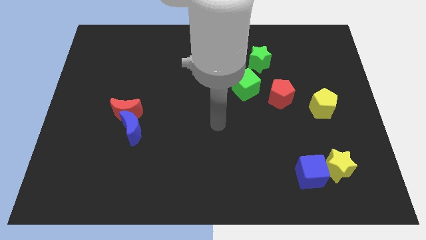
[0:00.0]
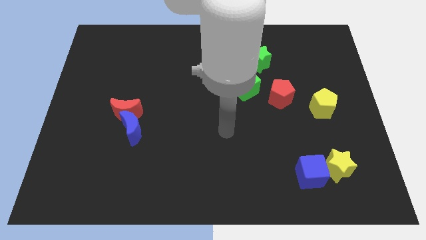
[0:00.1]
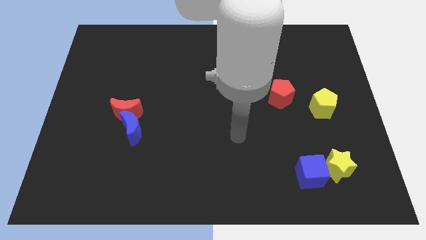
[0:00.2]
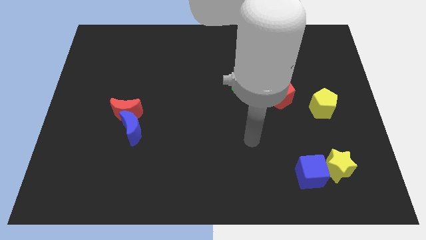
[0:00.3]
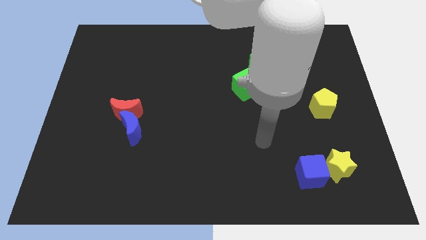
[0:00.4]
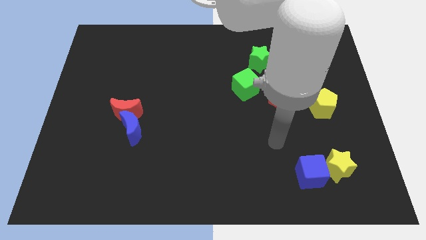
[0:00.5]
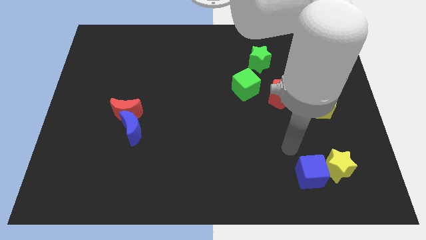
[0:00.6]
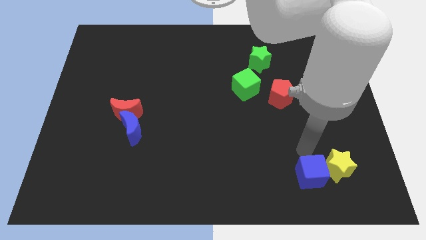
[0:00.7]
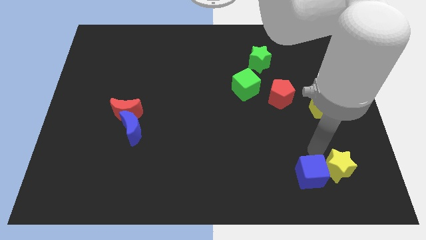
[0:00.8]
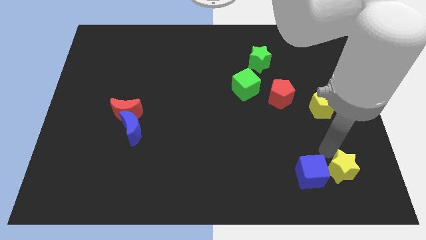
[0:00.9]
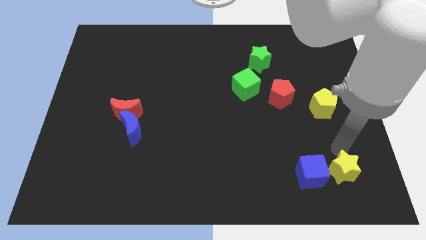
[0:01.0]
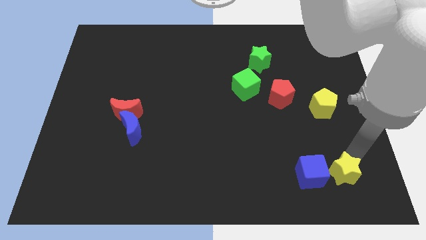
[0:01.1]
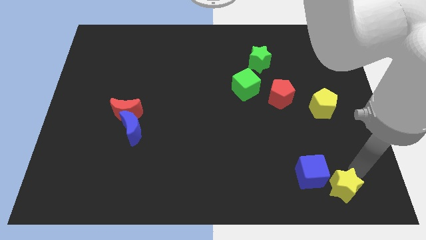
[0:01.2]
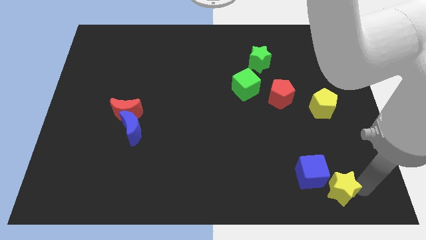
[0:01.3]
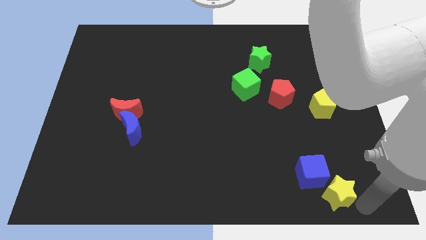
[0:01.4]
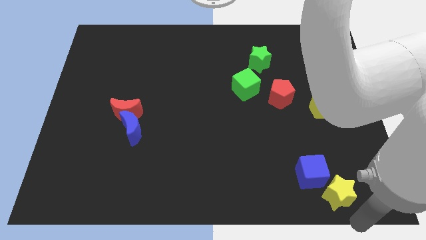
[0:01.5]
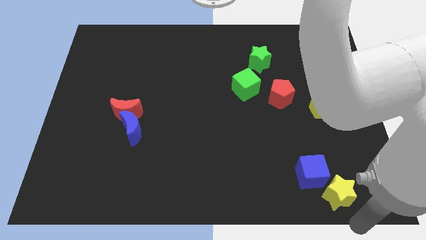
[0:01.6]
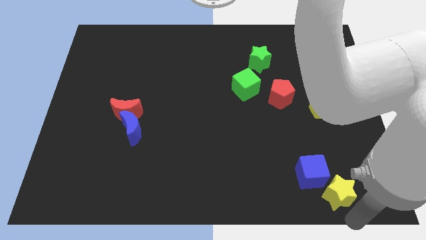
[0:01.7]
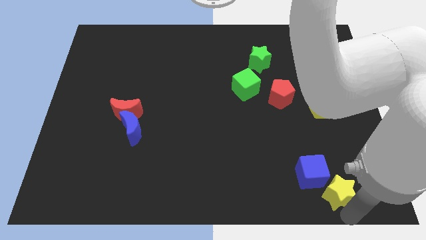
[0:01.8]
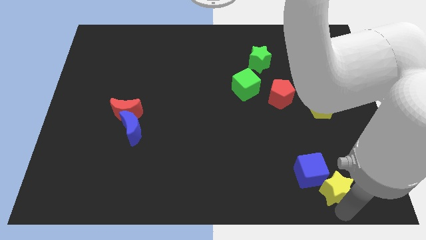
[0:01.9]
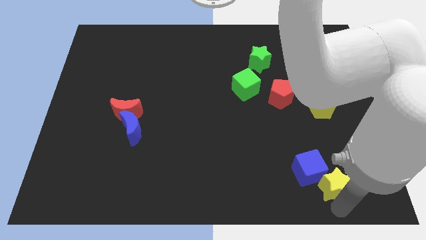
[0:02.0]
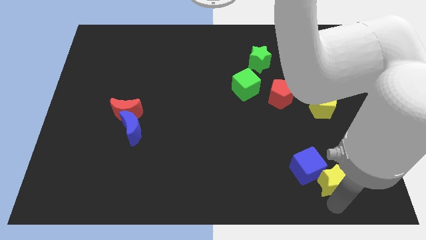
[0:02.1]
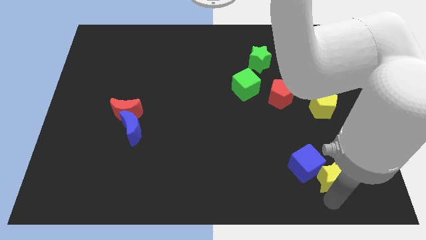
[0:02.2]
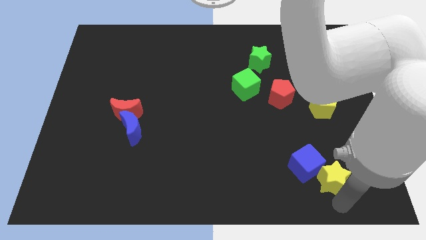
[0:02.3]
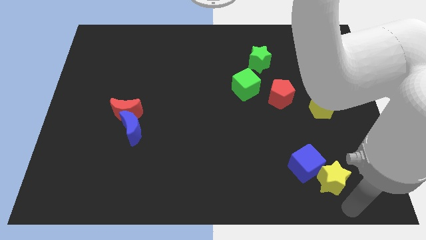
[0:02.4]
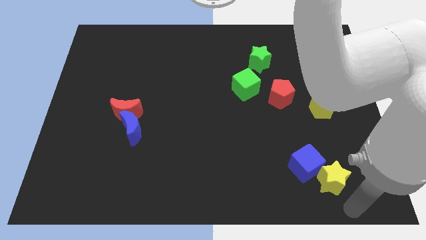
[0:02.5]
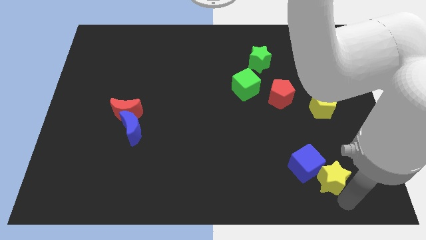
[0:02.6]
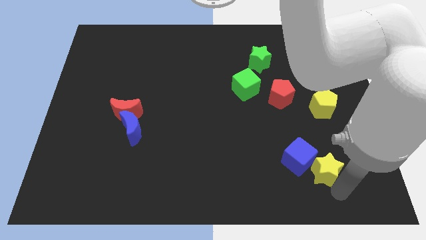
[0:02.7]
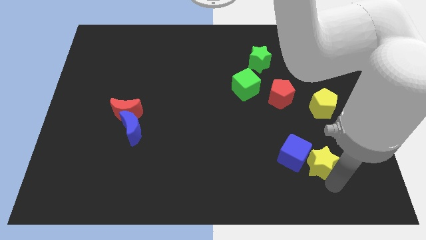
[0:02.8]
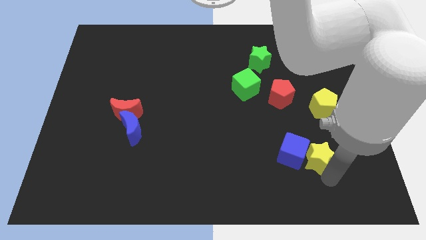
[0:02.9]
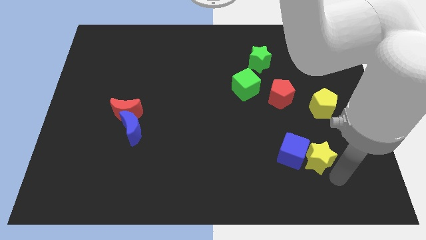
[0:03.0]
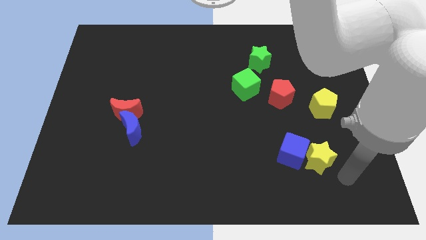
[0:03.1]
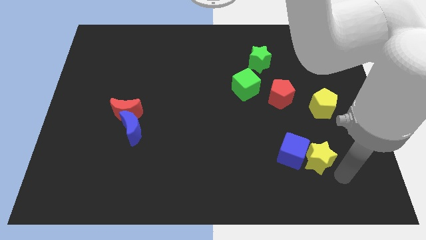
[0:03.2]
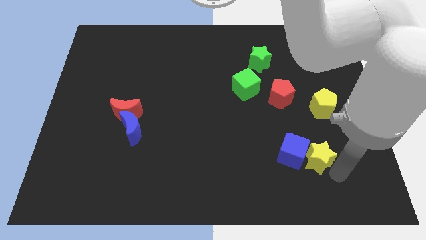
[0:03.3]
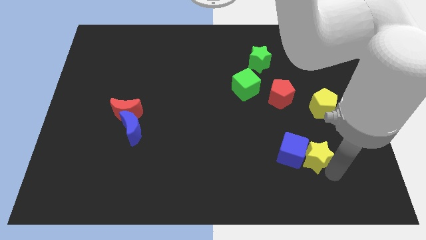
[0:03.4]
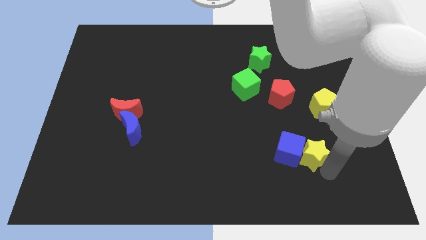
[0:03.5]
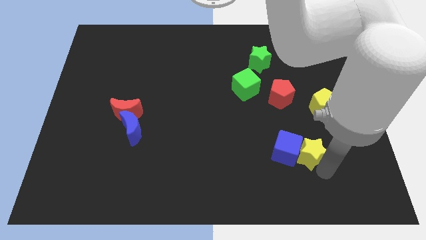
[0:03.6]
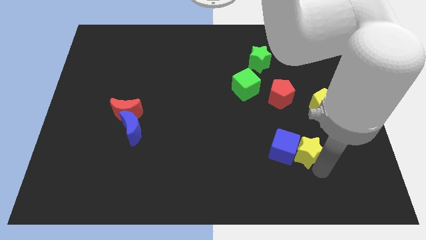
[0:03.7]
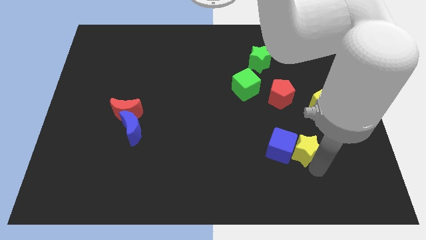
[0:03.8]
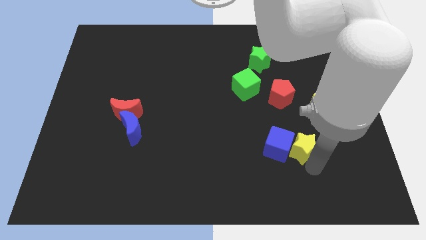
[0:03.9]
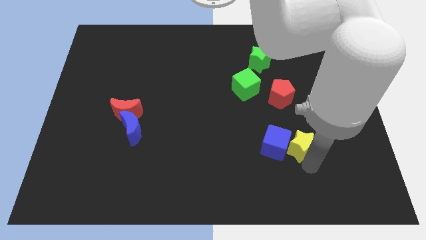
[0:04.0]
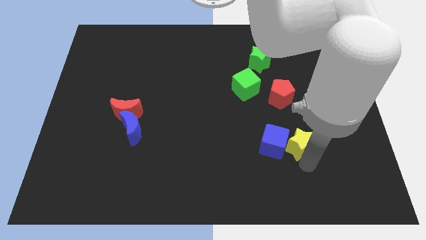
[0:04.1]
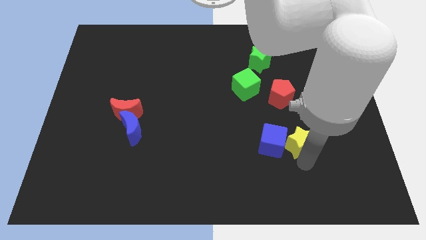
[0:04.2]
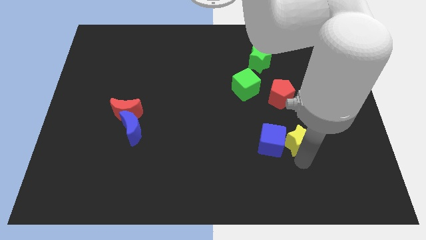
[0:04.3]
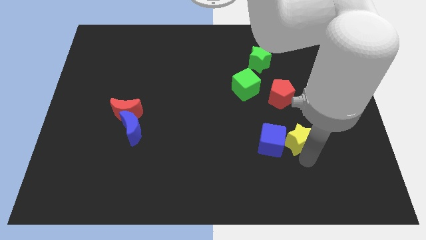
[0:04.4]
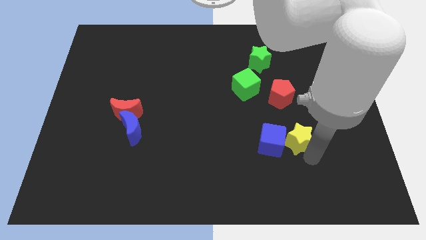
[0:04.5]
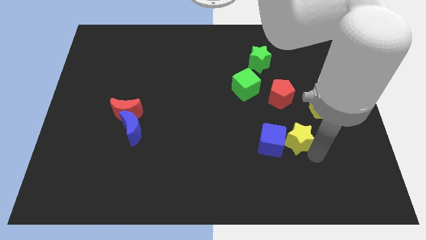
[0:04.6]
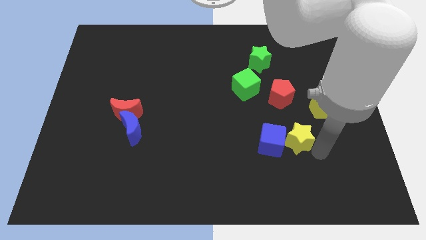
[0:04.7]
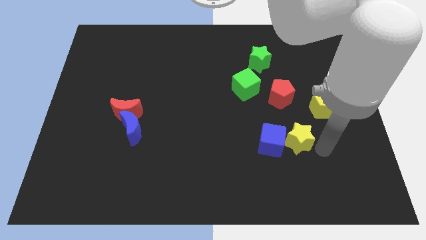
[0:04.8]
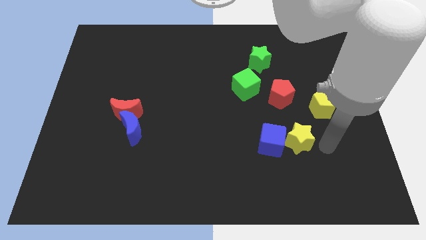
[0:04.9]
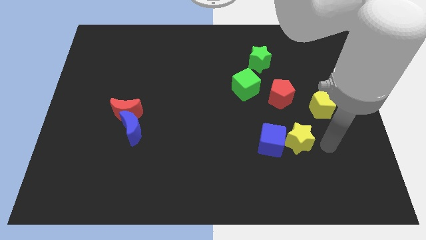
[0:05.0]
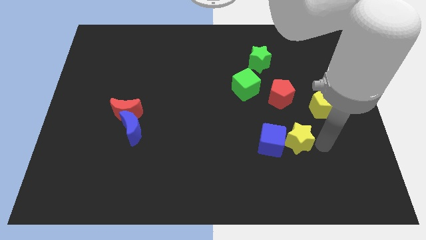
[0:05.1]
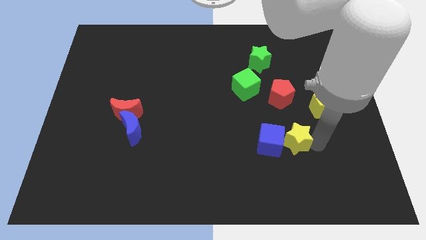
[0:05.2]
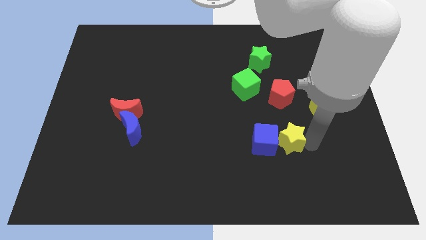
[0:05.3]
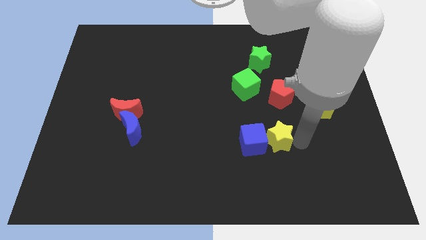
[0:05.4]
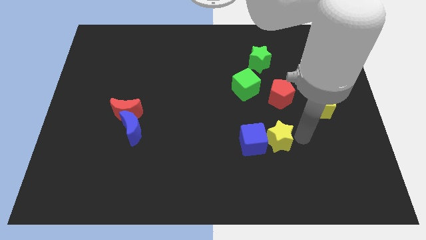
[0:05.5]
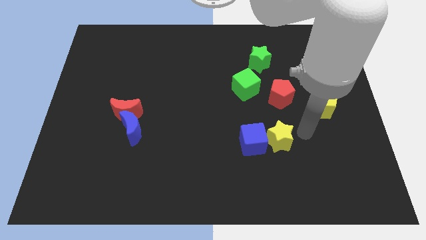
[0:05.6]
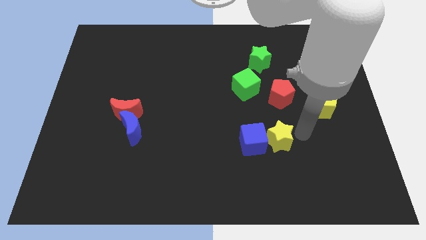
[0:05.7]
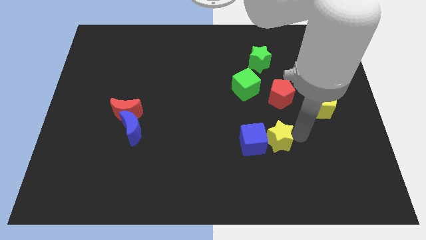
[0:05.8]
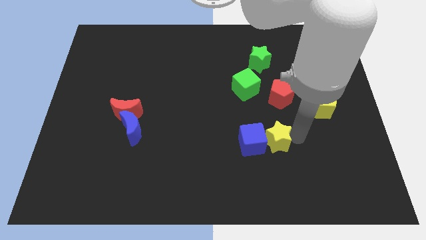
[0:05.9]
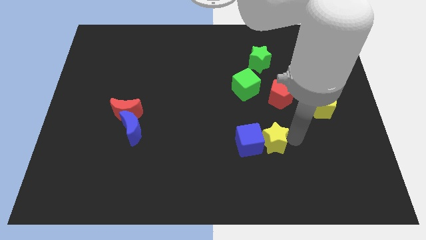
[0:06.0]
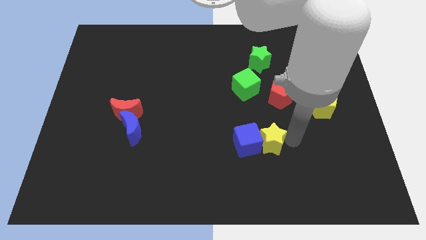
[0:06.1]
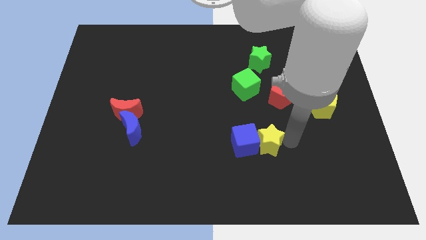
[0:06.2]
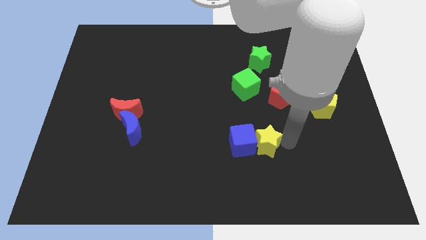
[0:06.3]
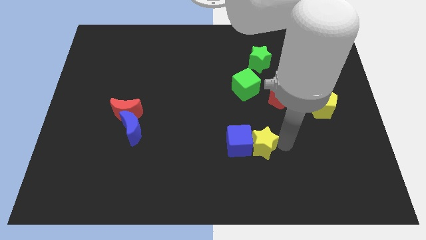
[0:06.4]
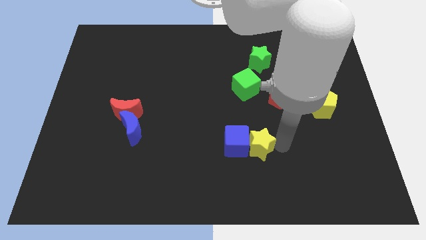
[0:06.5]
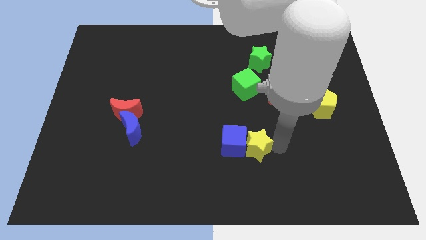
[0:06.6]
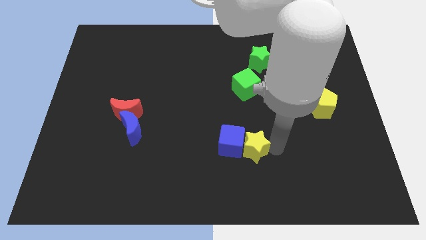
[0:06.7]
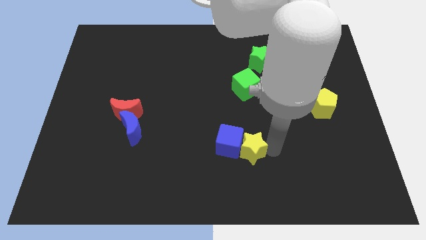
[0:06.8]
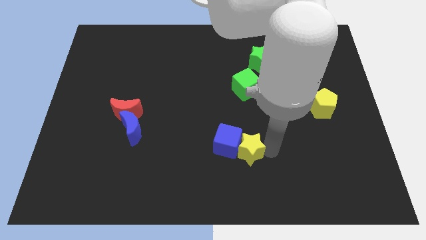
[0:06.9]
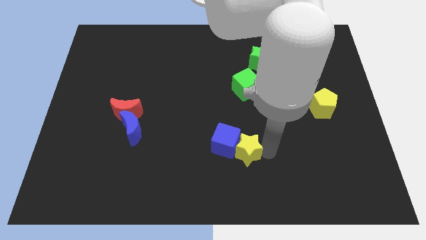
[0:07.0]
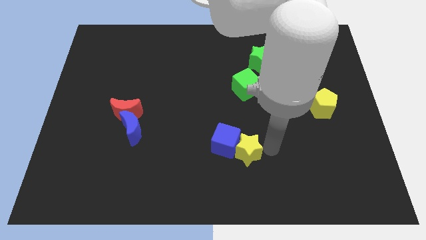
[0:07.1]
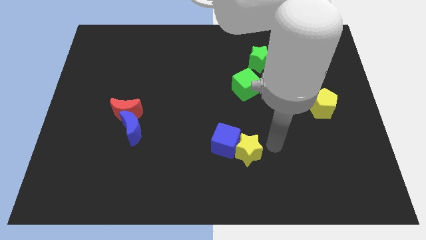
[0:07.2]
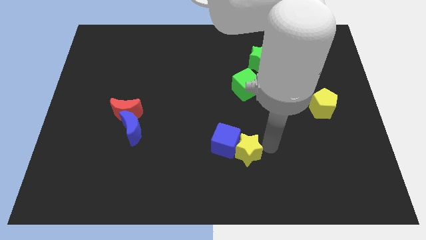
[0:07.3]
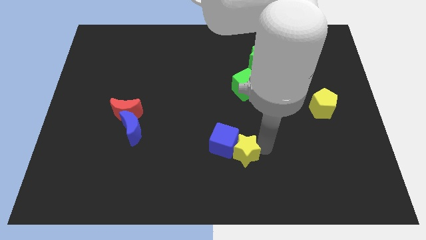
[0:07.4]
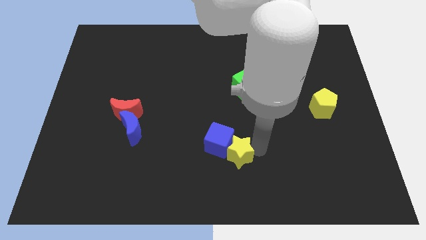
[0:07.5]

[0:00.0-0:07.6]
move the yellow star to the left

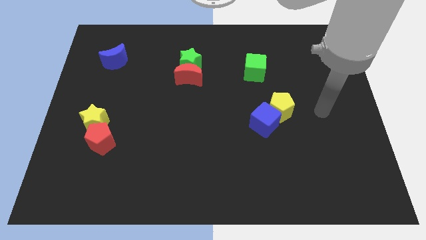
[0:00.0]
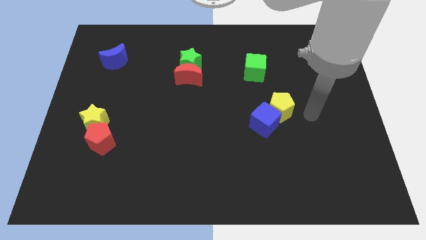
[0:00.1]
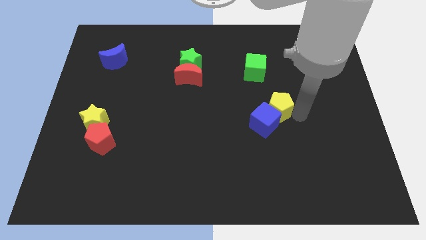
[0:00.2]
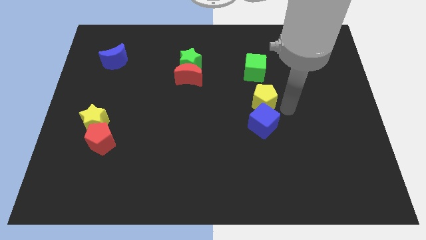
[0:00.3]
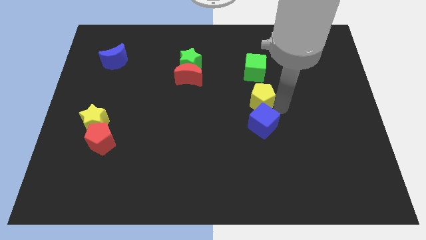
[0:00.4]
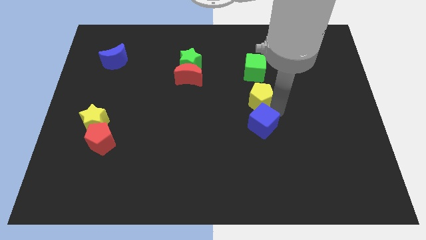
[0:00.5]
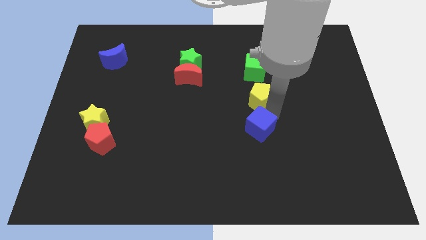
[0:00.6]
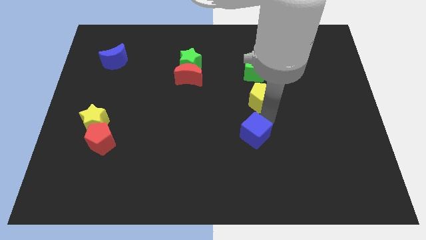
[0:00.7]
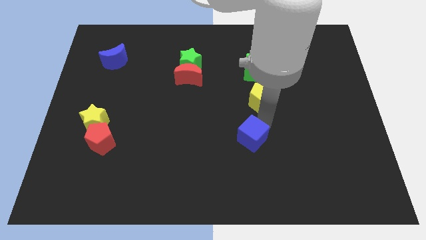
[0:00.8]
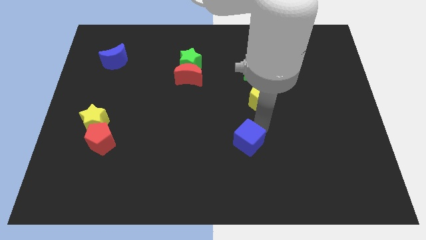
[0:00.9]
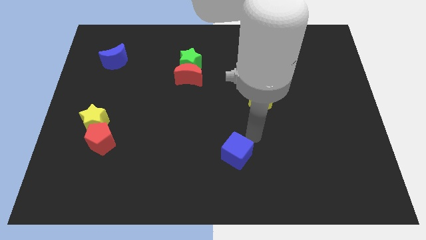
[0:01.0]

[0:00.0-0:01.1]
slide the blue cube down and then to the left slightly
